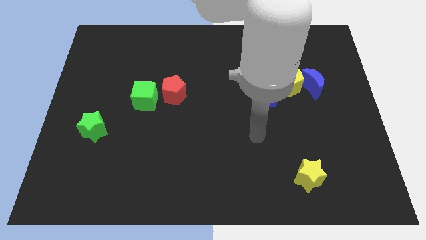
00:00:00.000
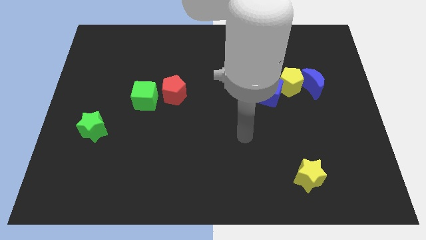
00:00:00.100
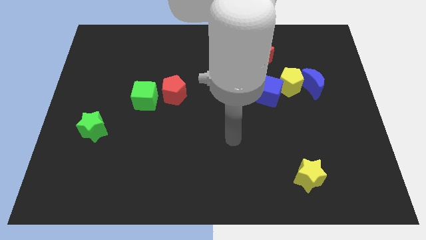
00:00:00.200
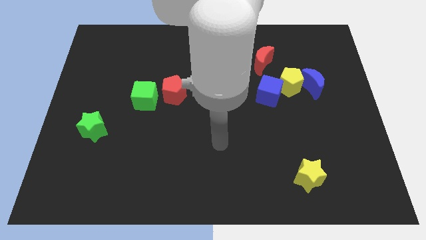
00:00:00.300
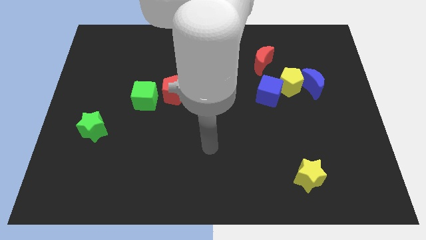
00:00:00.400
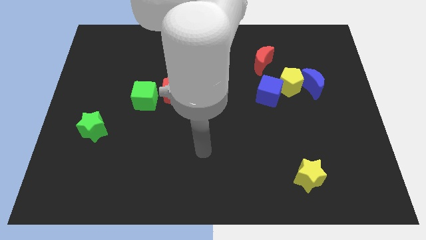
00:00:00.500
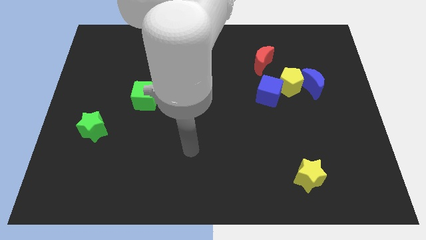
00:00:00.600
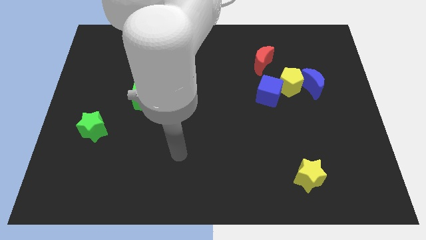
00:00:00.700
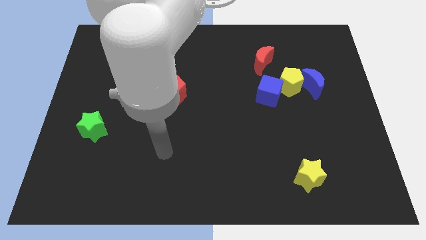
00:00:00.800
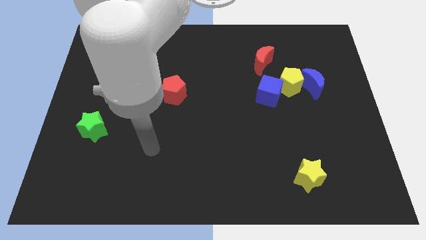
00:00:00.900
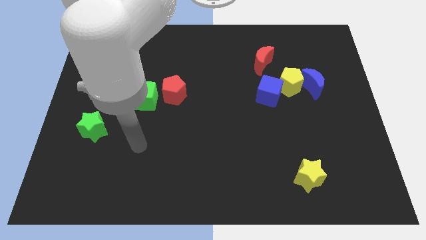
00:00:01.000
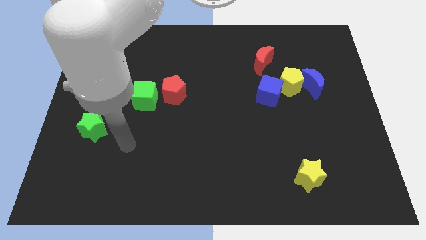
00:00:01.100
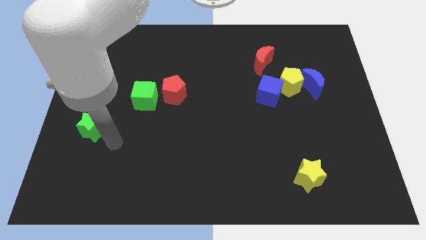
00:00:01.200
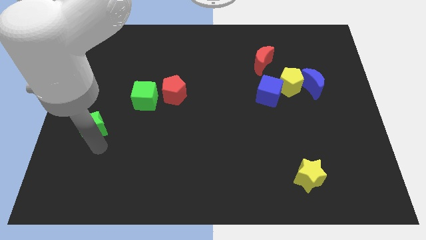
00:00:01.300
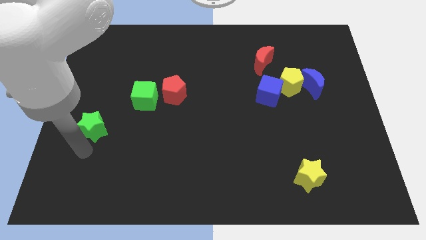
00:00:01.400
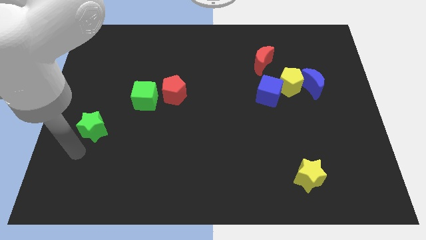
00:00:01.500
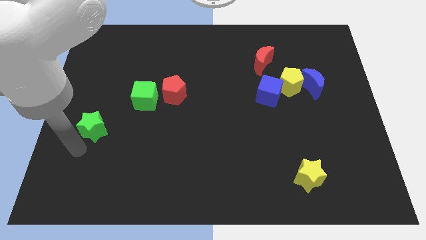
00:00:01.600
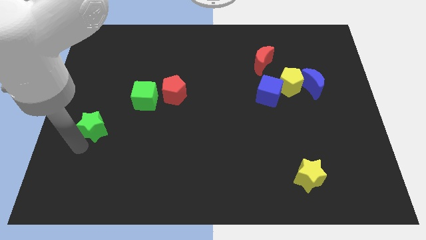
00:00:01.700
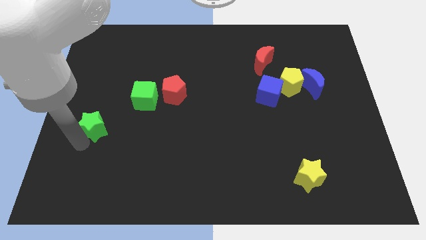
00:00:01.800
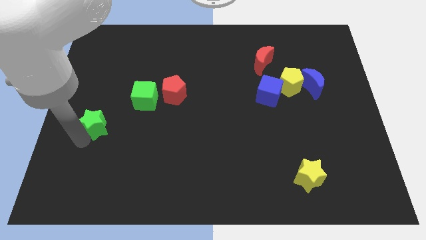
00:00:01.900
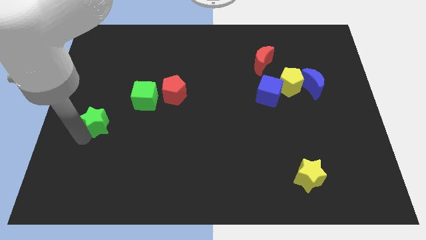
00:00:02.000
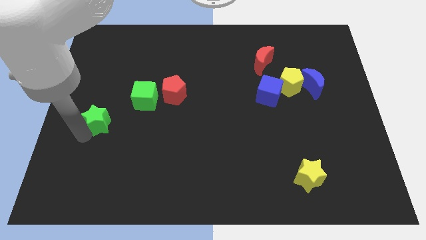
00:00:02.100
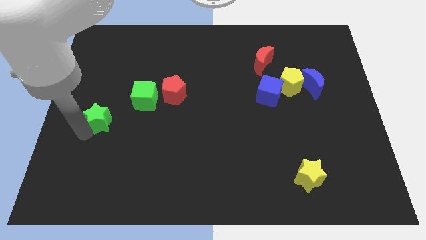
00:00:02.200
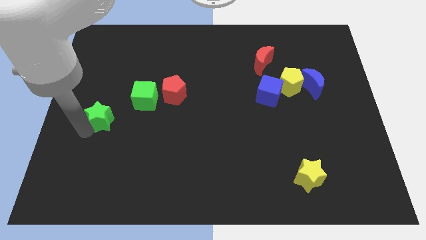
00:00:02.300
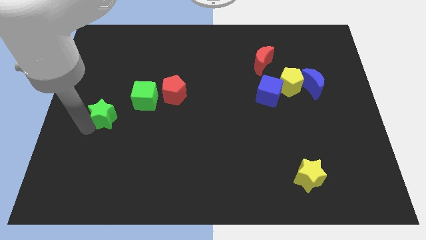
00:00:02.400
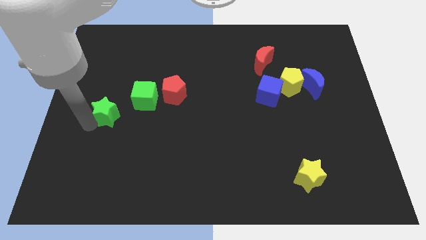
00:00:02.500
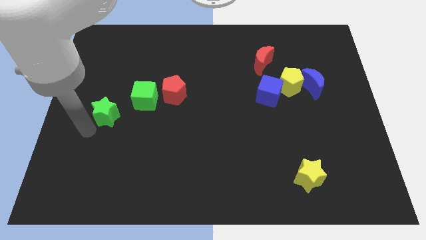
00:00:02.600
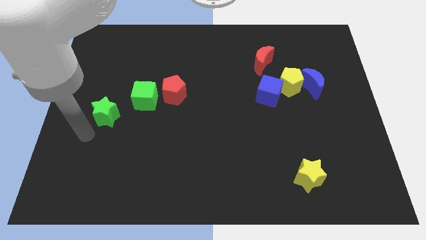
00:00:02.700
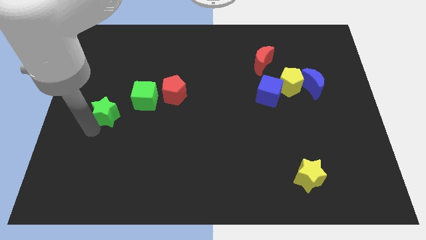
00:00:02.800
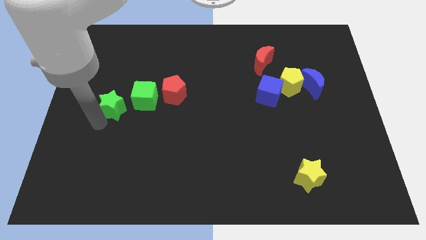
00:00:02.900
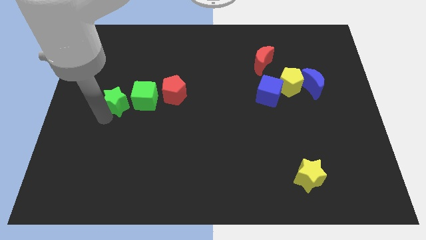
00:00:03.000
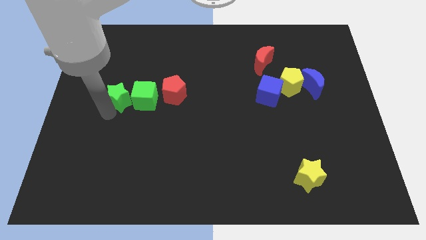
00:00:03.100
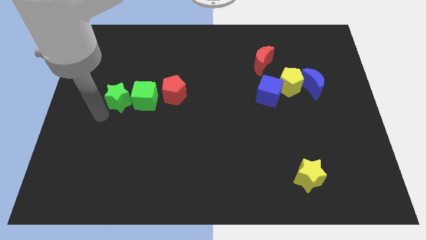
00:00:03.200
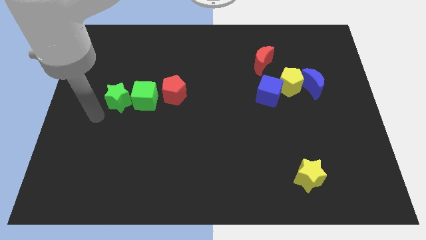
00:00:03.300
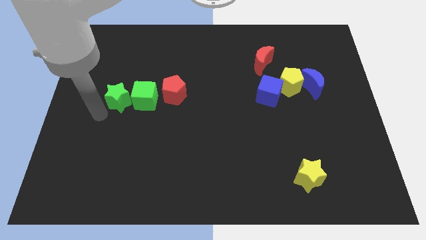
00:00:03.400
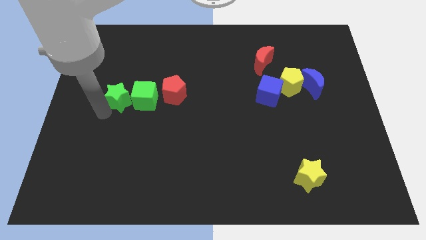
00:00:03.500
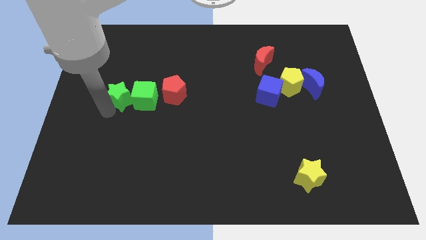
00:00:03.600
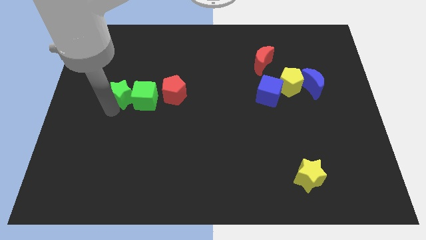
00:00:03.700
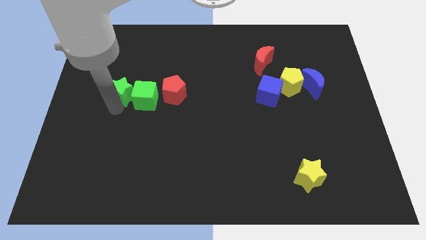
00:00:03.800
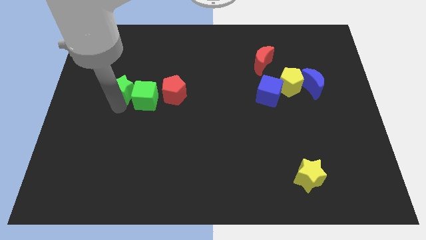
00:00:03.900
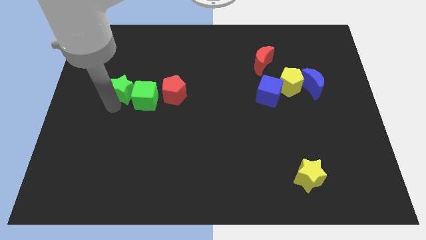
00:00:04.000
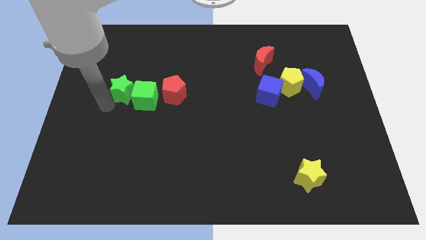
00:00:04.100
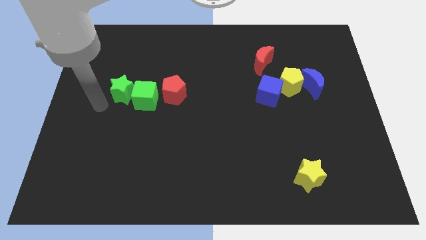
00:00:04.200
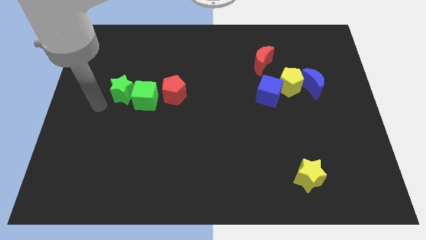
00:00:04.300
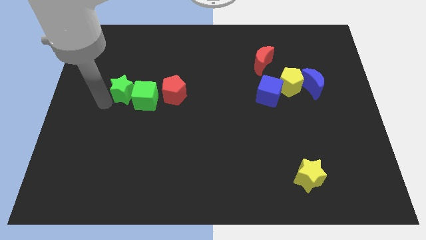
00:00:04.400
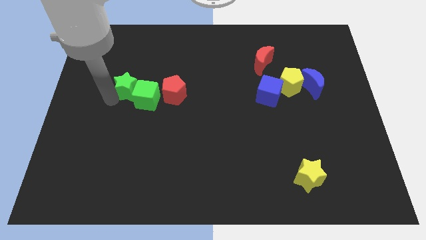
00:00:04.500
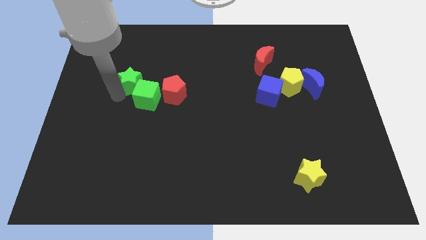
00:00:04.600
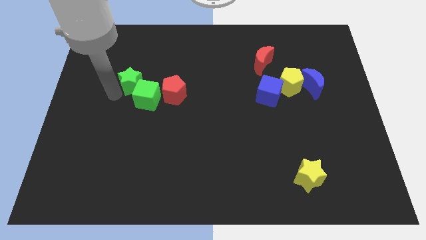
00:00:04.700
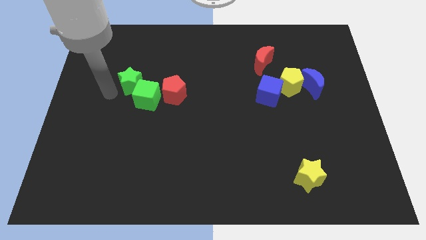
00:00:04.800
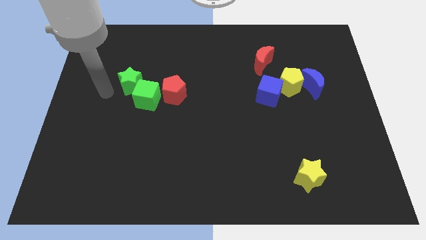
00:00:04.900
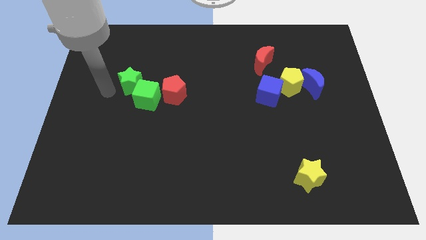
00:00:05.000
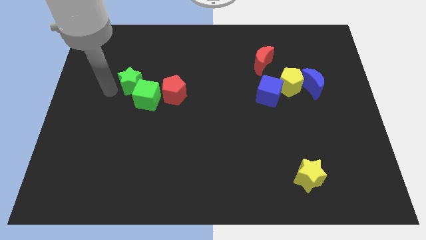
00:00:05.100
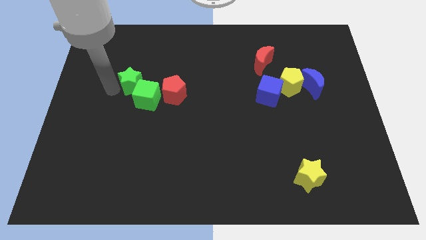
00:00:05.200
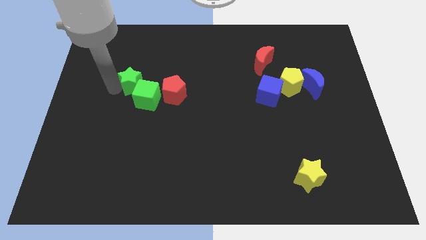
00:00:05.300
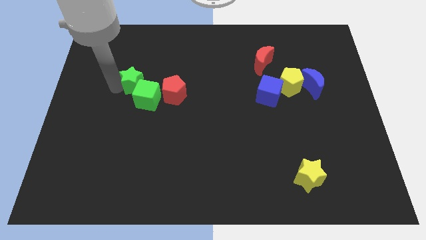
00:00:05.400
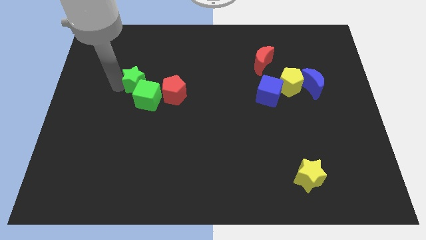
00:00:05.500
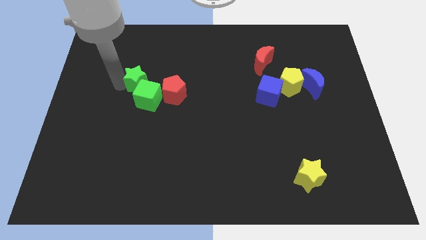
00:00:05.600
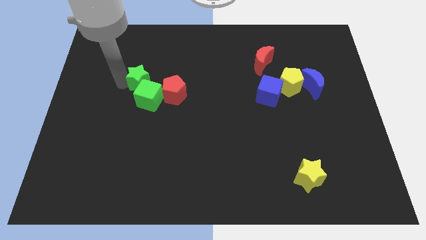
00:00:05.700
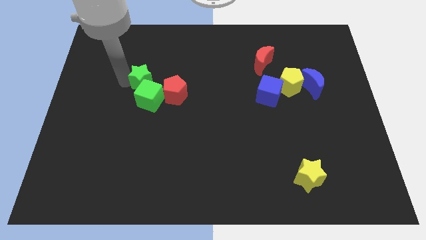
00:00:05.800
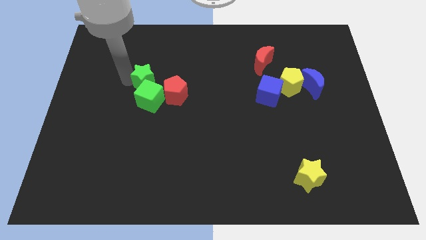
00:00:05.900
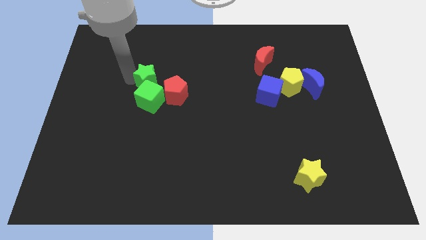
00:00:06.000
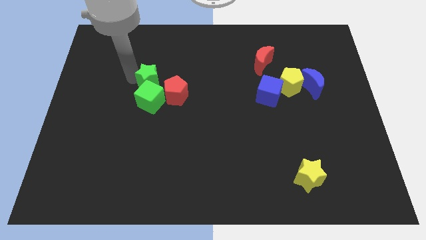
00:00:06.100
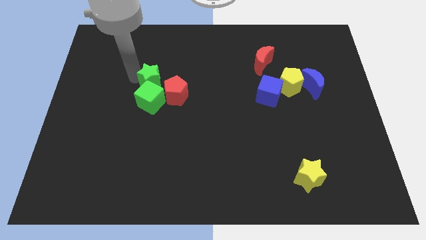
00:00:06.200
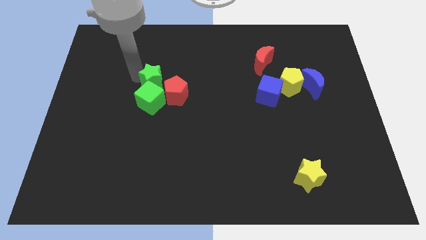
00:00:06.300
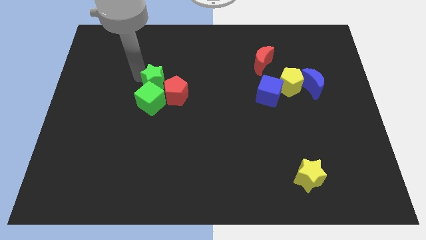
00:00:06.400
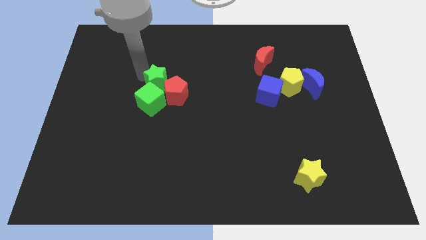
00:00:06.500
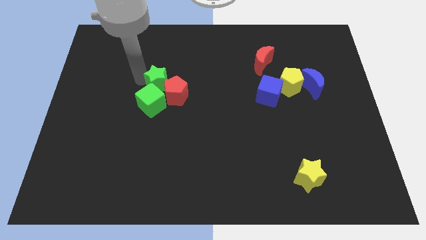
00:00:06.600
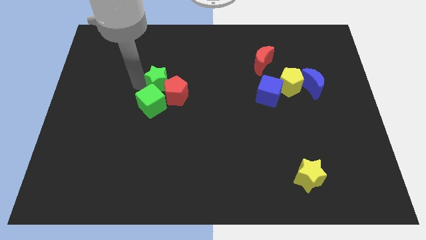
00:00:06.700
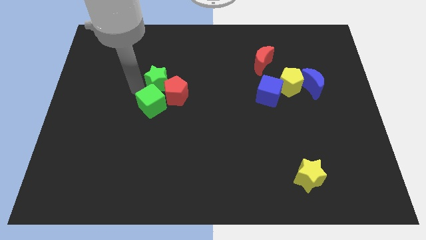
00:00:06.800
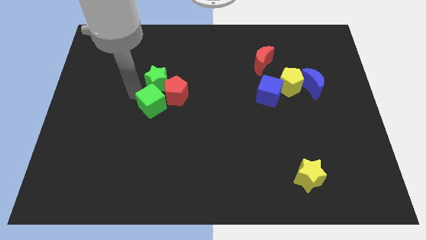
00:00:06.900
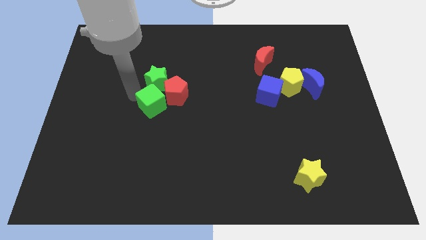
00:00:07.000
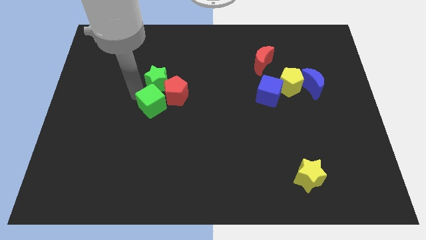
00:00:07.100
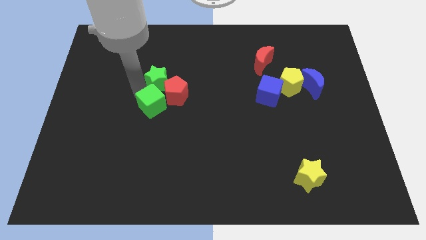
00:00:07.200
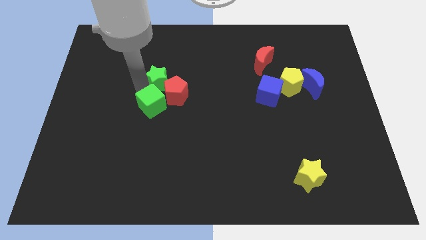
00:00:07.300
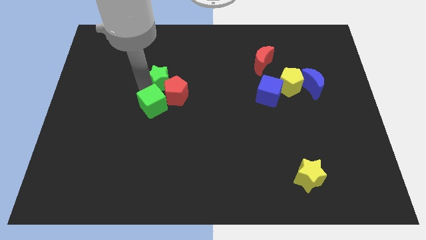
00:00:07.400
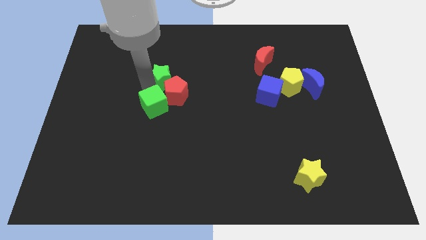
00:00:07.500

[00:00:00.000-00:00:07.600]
push the green star upwards and right diagonally

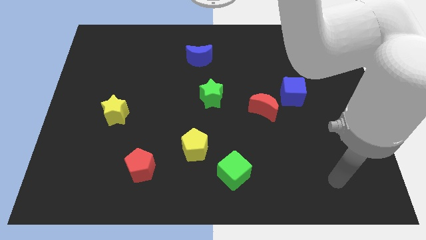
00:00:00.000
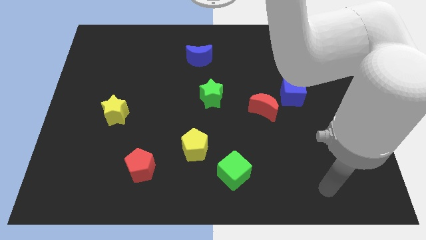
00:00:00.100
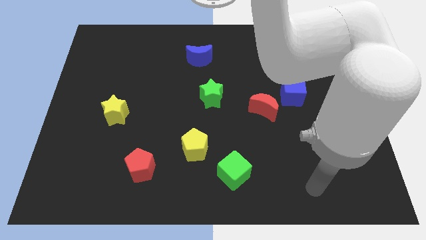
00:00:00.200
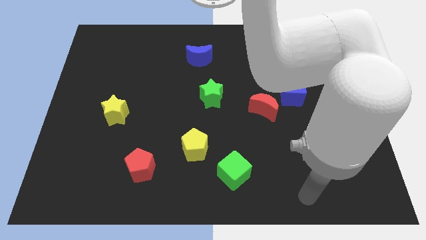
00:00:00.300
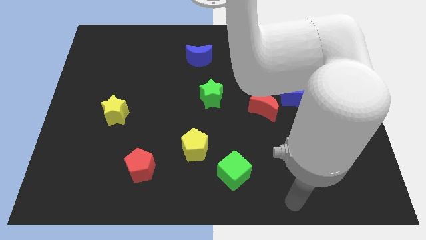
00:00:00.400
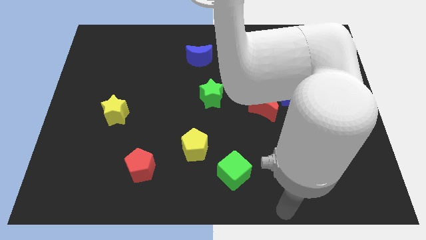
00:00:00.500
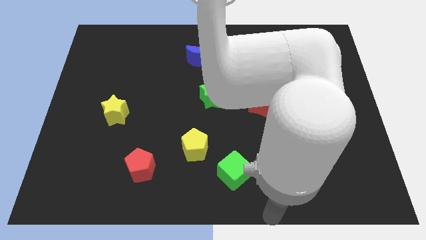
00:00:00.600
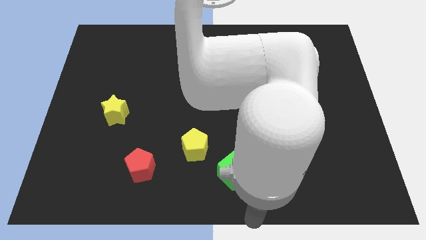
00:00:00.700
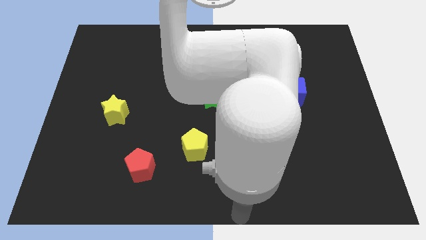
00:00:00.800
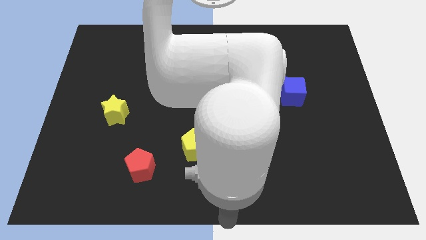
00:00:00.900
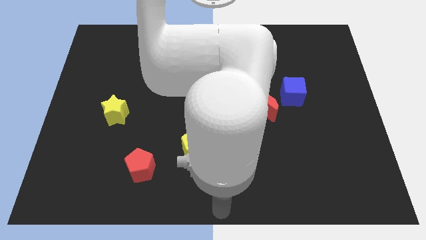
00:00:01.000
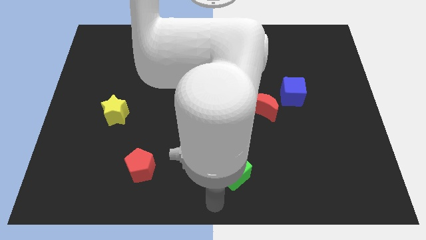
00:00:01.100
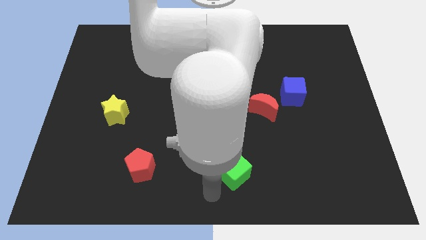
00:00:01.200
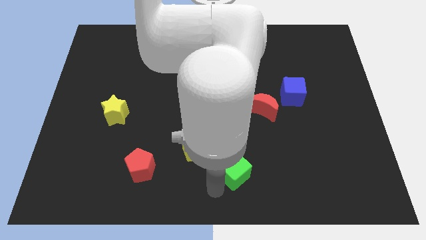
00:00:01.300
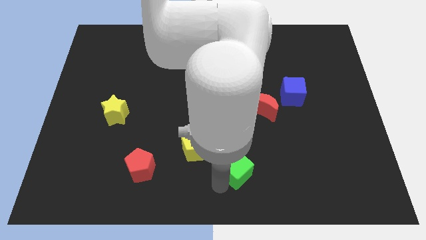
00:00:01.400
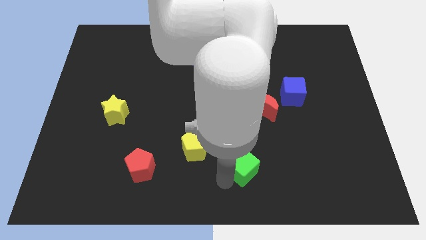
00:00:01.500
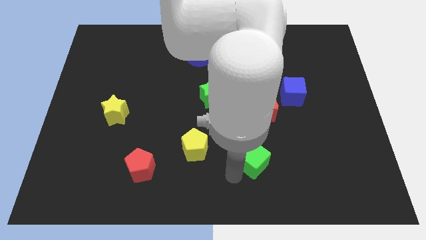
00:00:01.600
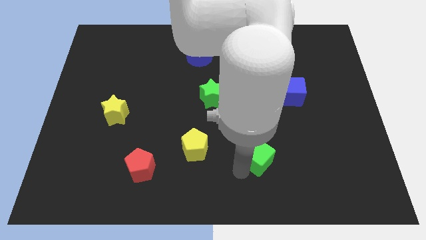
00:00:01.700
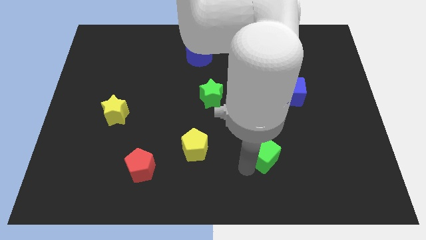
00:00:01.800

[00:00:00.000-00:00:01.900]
move the green cube up and to the right slightly
